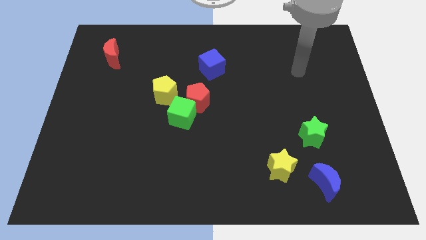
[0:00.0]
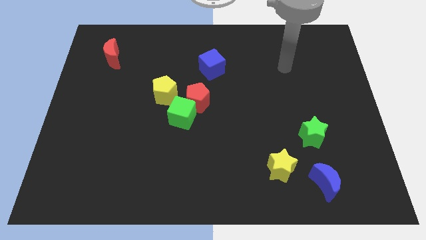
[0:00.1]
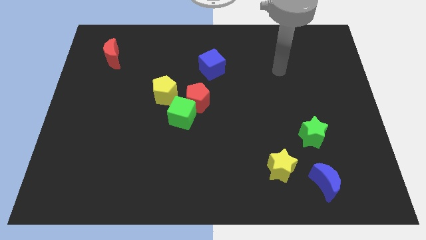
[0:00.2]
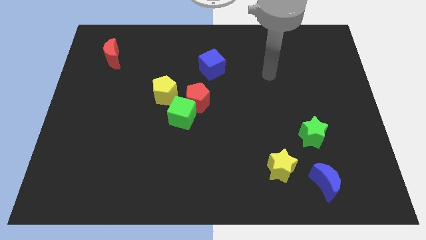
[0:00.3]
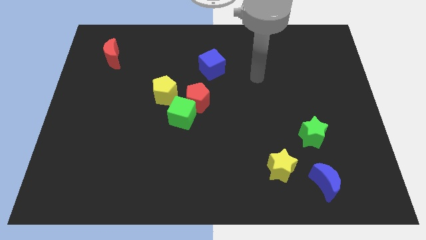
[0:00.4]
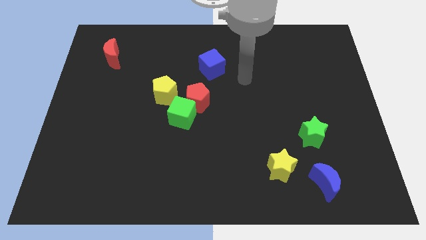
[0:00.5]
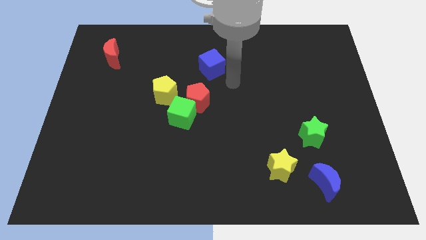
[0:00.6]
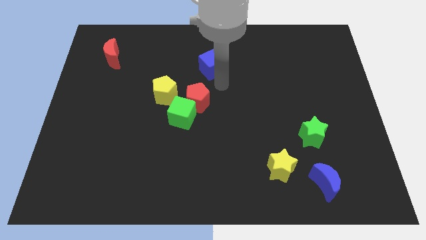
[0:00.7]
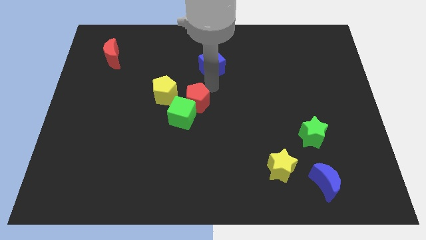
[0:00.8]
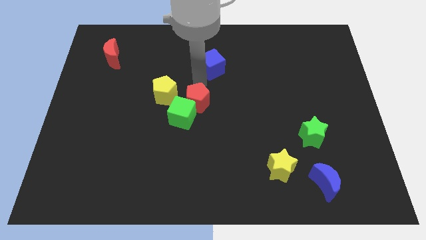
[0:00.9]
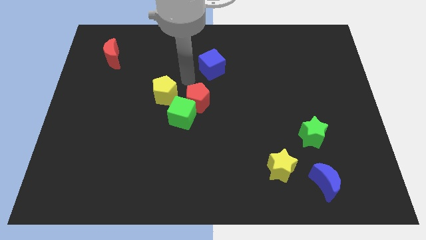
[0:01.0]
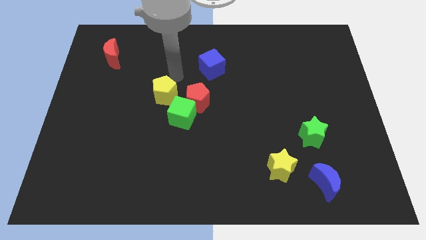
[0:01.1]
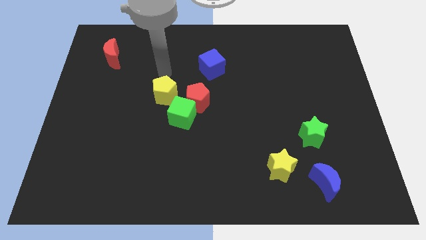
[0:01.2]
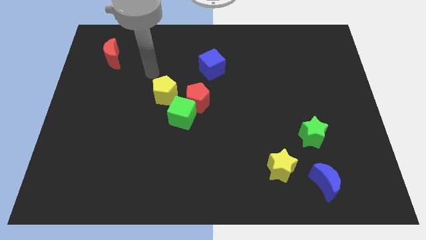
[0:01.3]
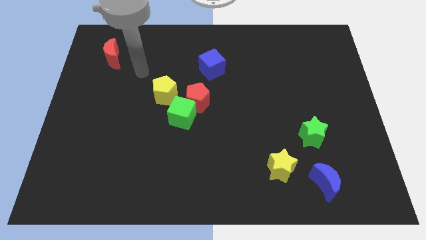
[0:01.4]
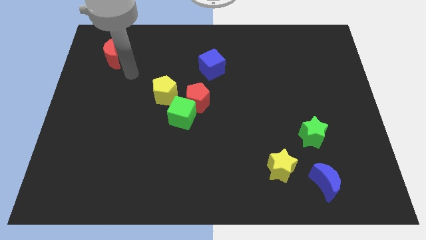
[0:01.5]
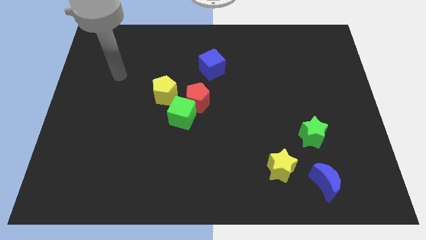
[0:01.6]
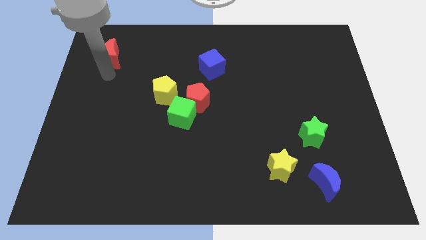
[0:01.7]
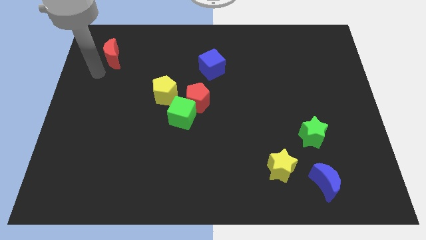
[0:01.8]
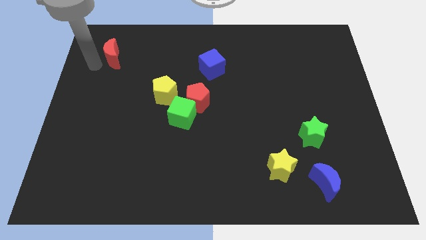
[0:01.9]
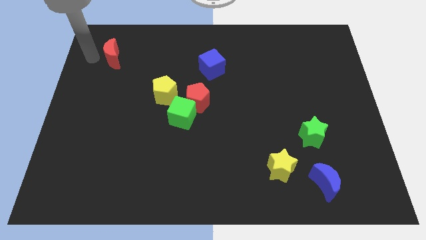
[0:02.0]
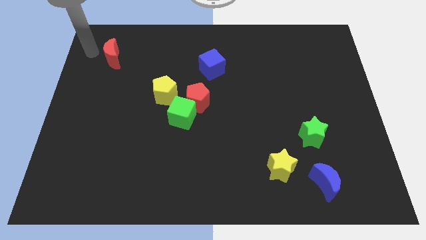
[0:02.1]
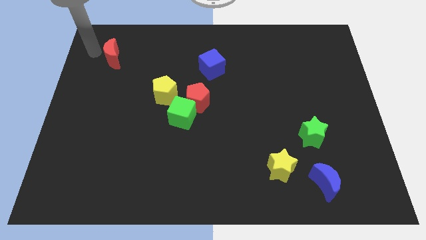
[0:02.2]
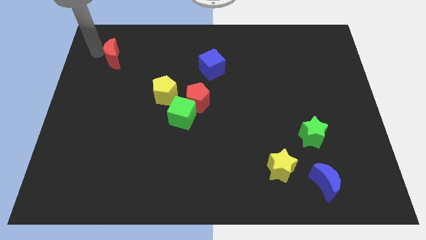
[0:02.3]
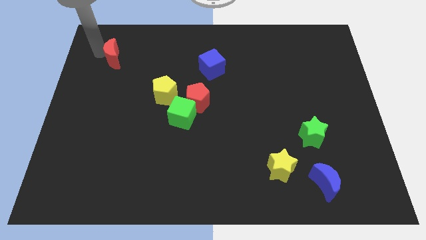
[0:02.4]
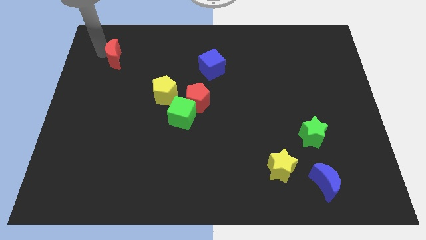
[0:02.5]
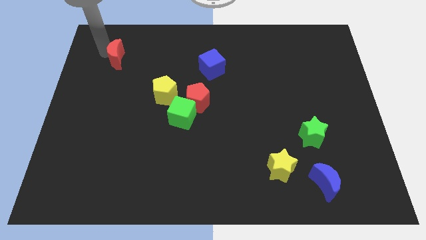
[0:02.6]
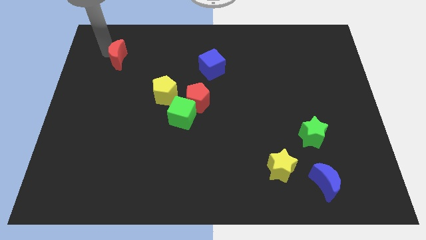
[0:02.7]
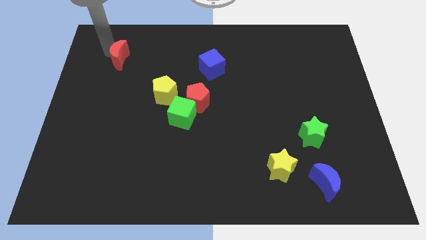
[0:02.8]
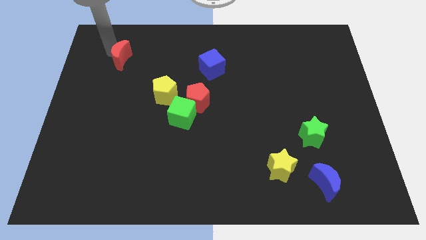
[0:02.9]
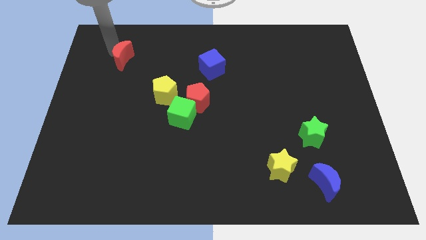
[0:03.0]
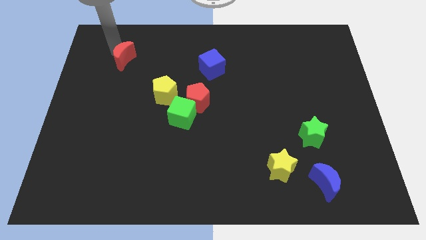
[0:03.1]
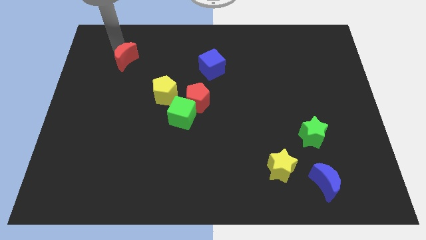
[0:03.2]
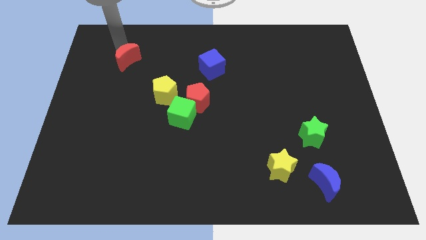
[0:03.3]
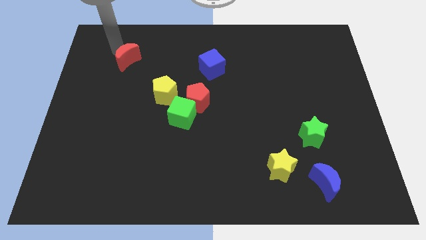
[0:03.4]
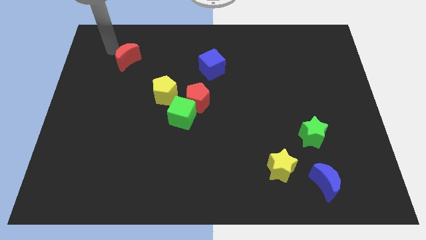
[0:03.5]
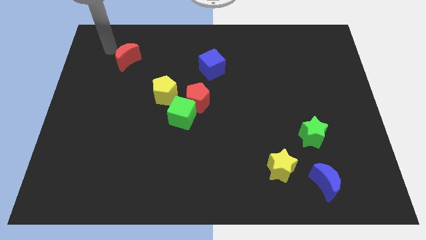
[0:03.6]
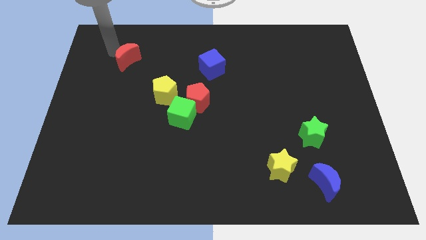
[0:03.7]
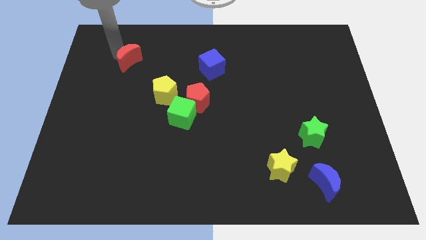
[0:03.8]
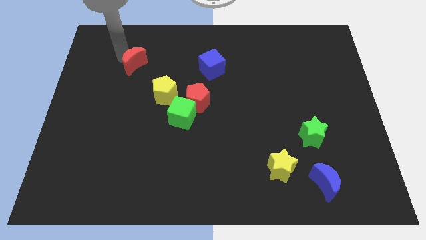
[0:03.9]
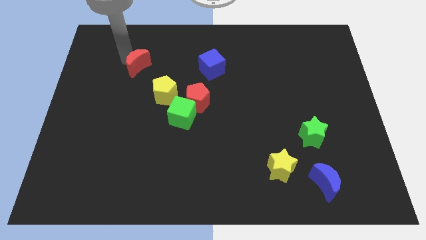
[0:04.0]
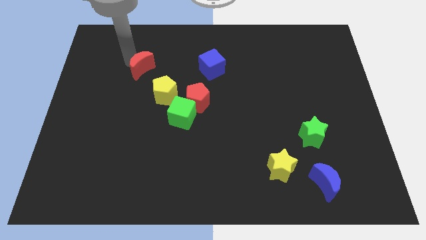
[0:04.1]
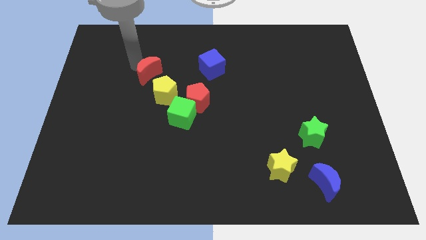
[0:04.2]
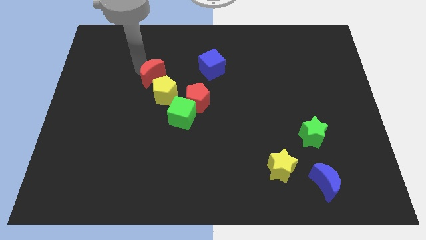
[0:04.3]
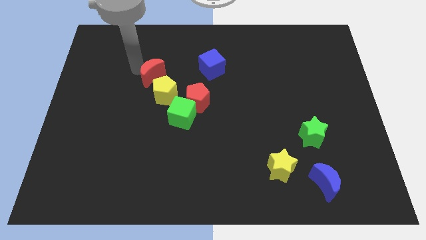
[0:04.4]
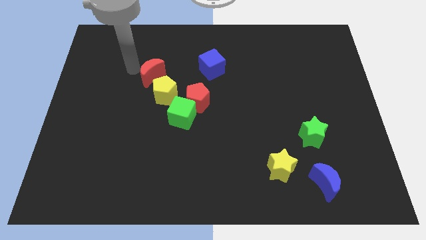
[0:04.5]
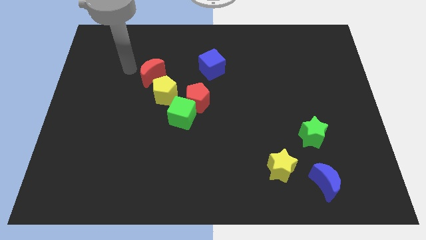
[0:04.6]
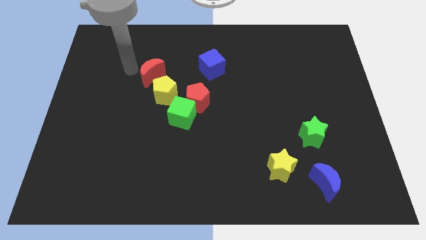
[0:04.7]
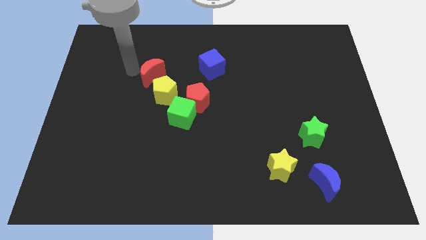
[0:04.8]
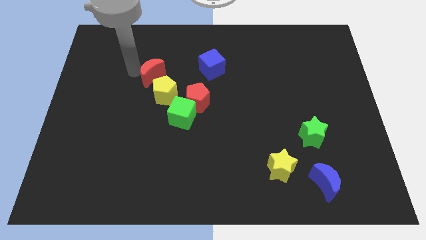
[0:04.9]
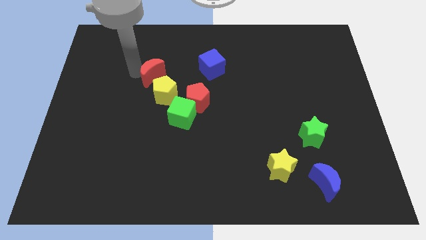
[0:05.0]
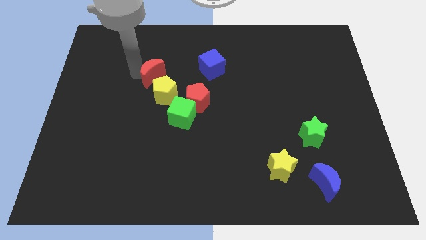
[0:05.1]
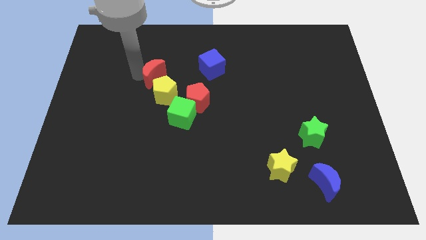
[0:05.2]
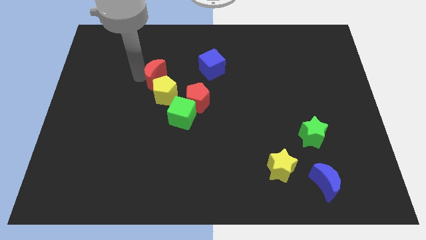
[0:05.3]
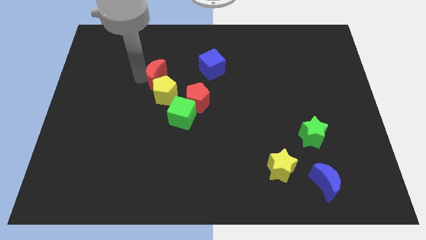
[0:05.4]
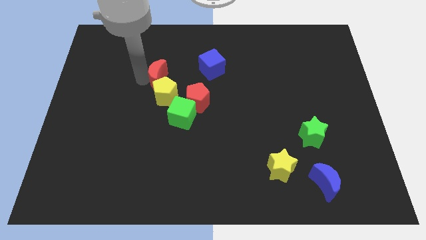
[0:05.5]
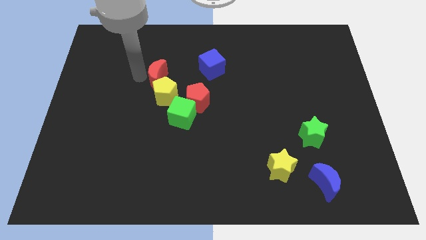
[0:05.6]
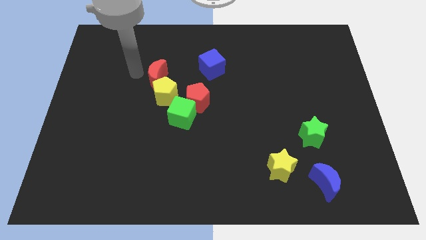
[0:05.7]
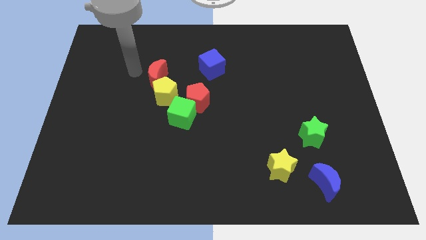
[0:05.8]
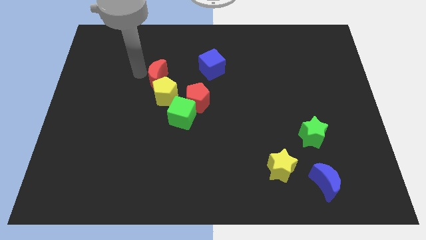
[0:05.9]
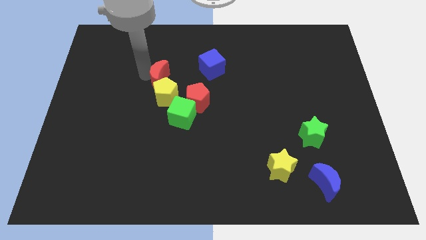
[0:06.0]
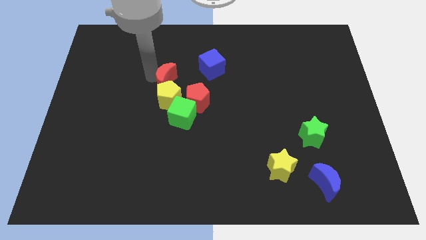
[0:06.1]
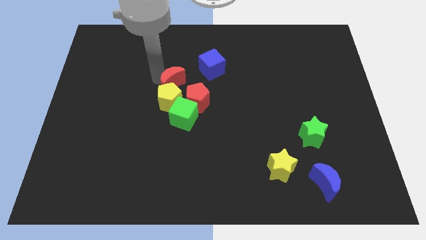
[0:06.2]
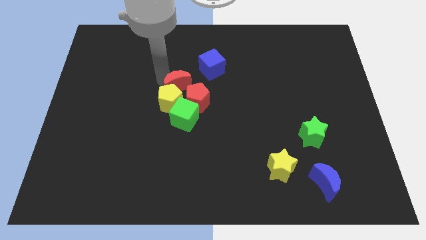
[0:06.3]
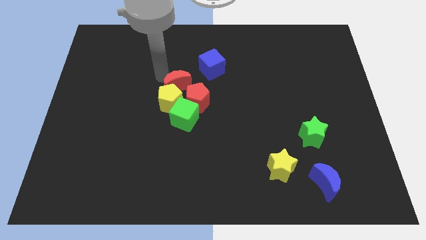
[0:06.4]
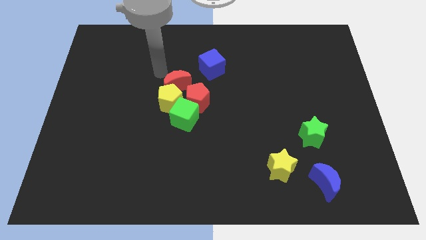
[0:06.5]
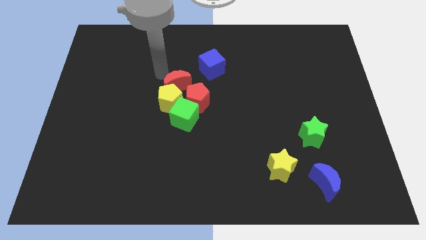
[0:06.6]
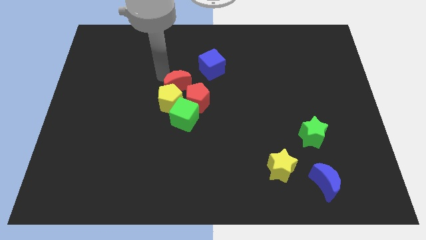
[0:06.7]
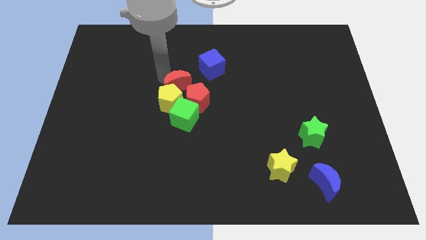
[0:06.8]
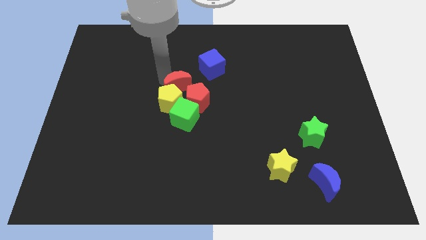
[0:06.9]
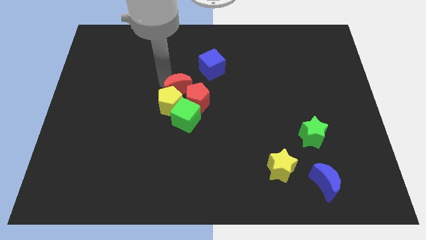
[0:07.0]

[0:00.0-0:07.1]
slide the red moon to the red pentagon

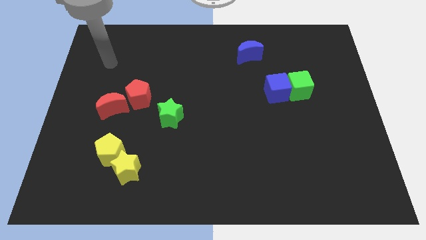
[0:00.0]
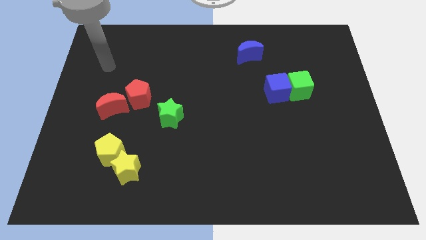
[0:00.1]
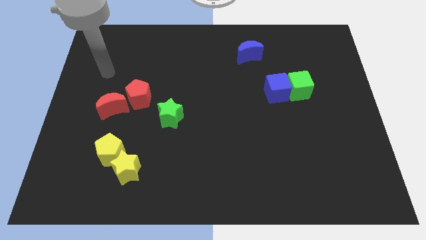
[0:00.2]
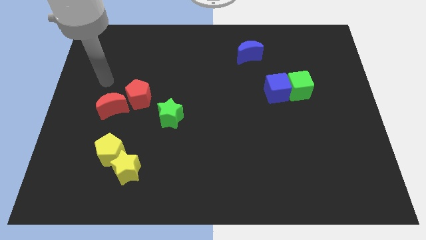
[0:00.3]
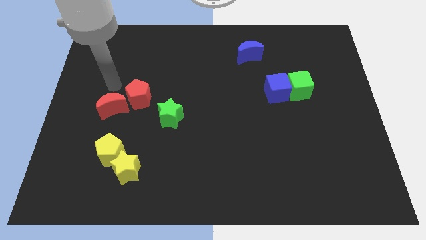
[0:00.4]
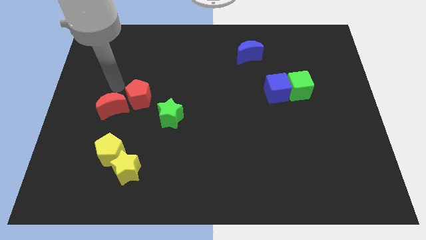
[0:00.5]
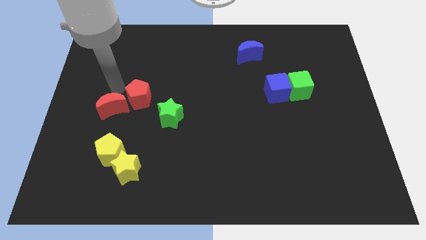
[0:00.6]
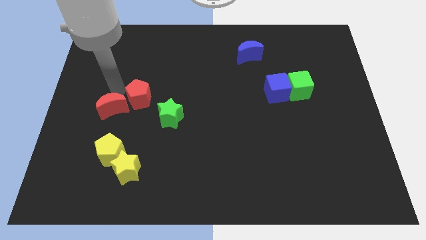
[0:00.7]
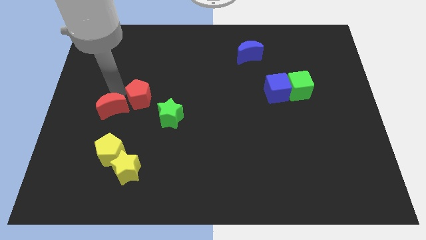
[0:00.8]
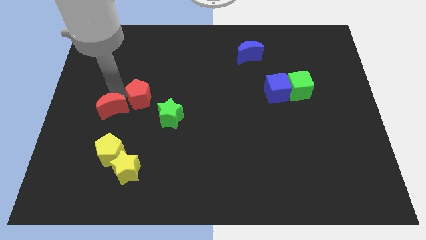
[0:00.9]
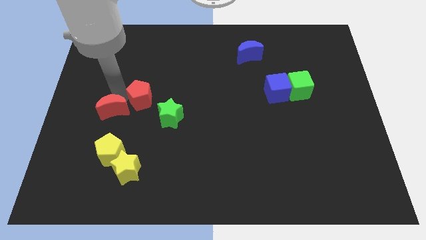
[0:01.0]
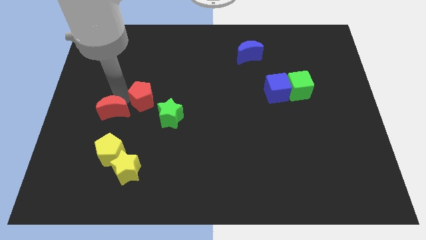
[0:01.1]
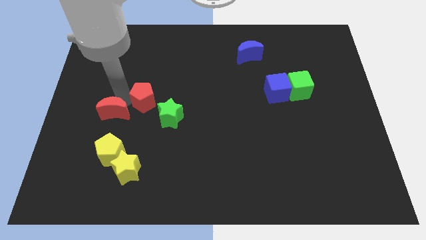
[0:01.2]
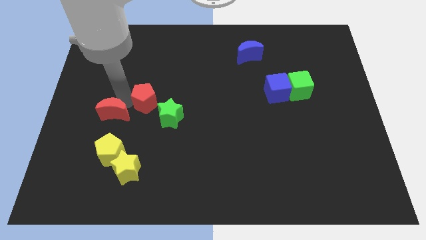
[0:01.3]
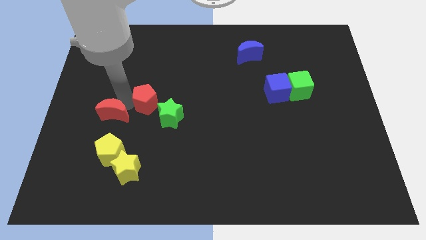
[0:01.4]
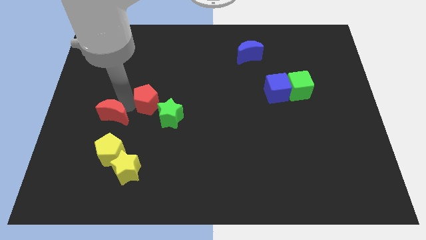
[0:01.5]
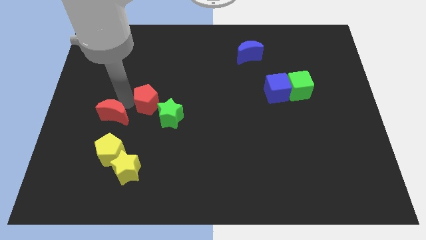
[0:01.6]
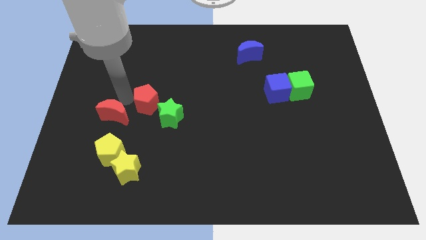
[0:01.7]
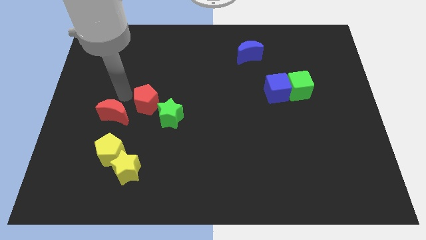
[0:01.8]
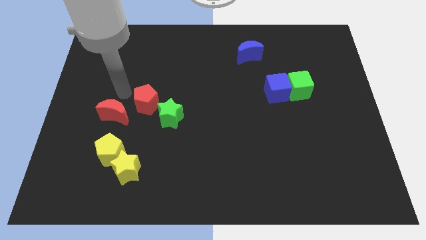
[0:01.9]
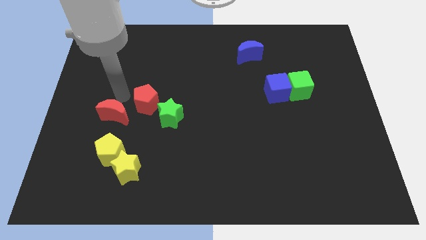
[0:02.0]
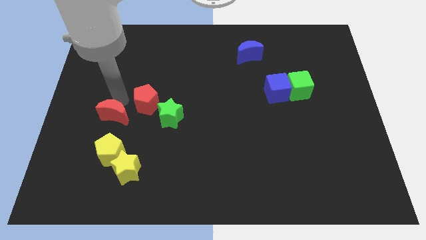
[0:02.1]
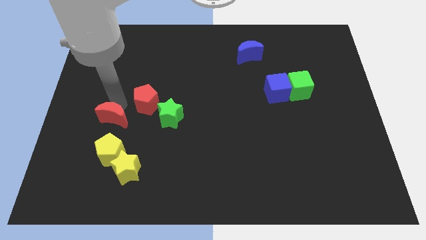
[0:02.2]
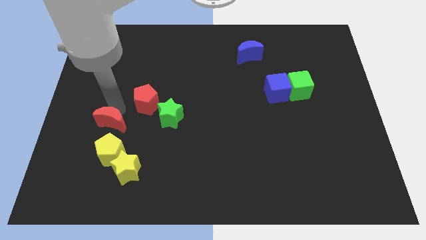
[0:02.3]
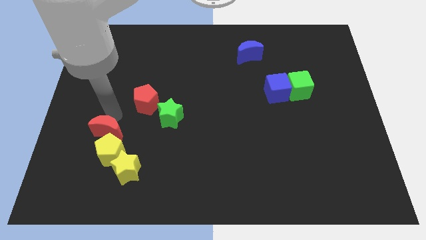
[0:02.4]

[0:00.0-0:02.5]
push the red moon towards the yellow pentagon
